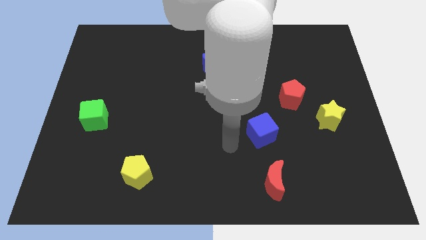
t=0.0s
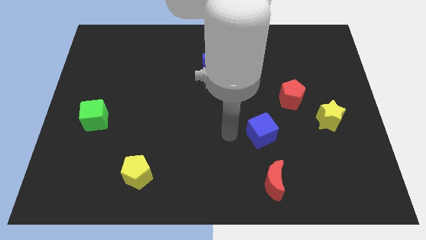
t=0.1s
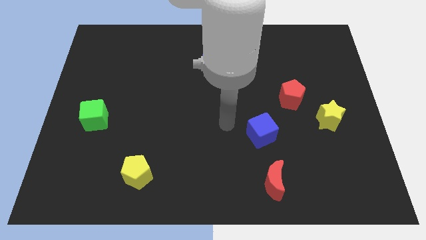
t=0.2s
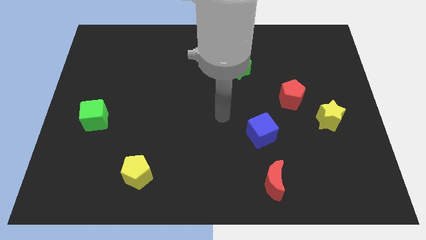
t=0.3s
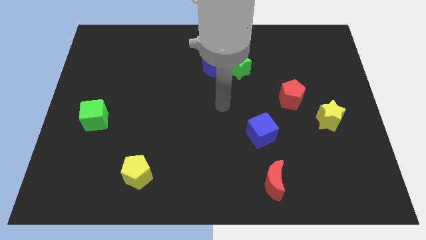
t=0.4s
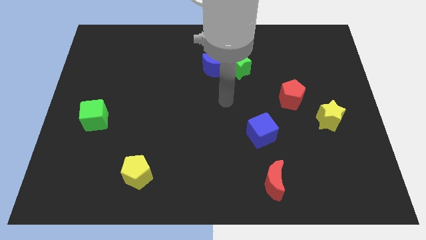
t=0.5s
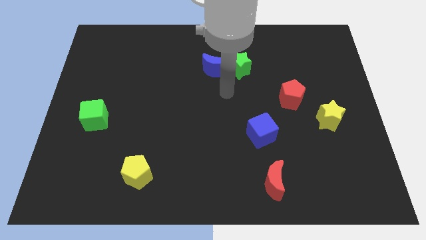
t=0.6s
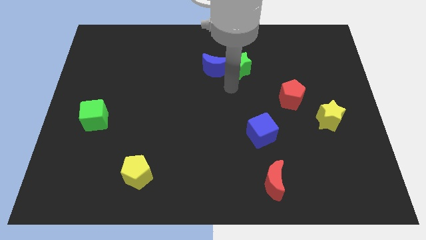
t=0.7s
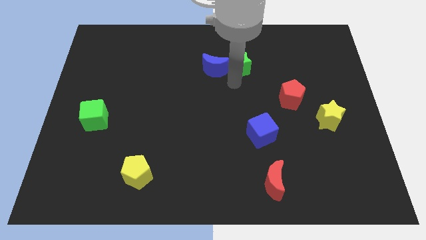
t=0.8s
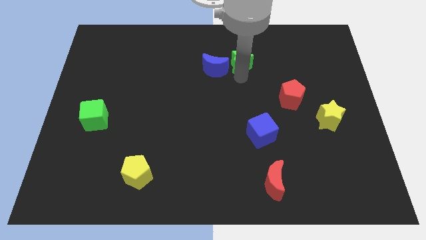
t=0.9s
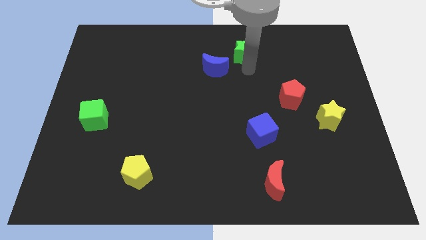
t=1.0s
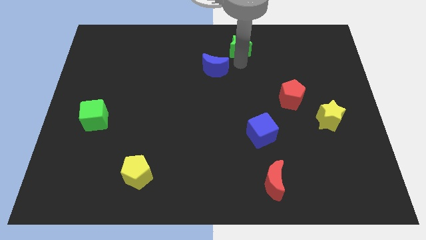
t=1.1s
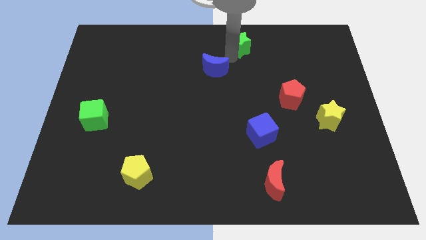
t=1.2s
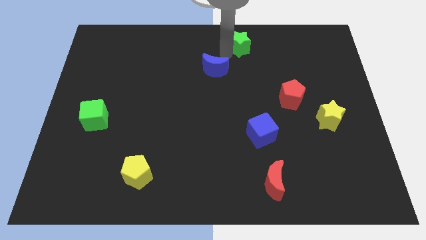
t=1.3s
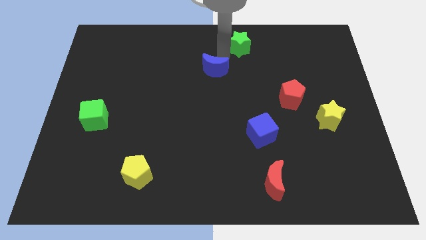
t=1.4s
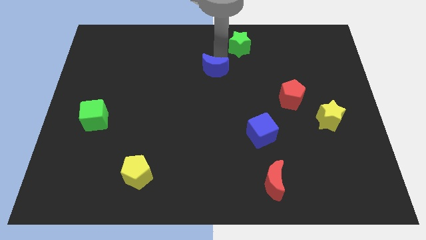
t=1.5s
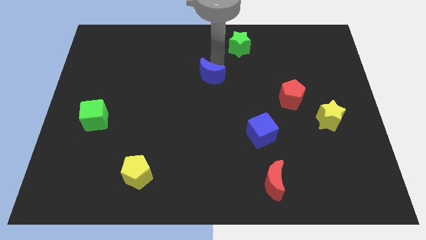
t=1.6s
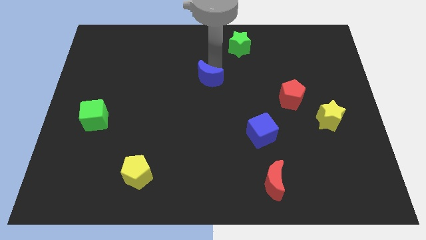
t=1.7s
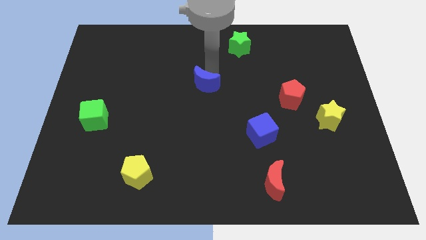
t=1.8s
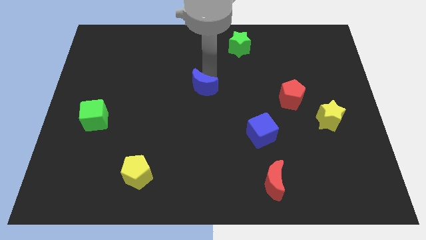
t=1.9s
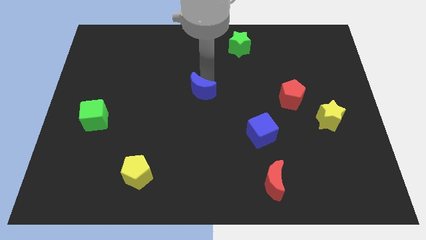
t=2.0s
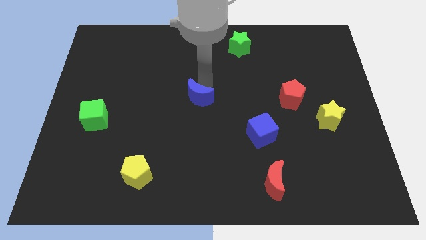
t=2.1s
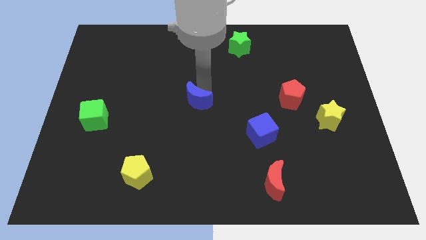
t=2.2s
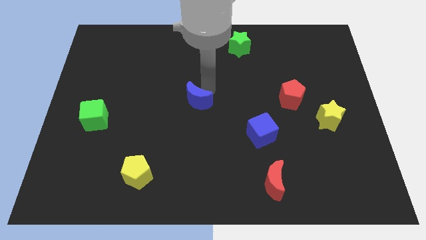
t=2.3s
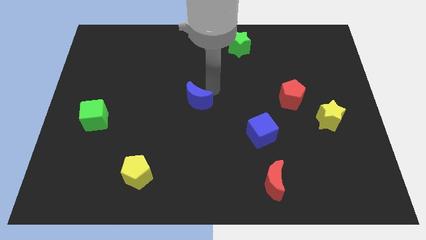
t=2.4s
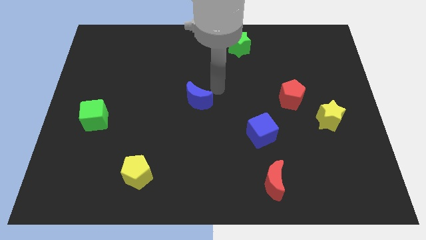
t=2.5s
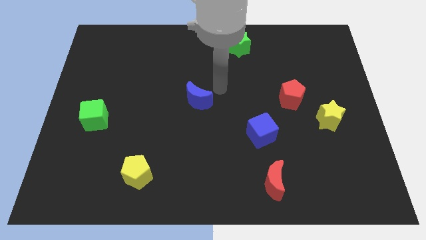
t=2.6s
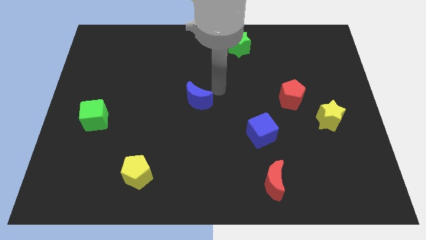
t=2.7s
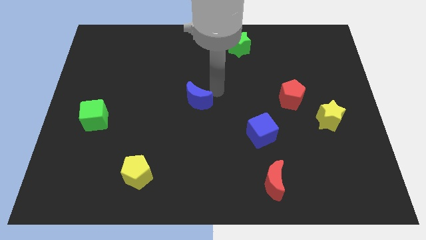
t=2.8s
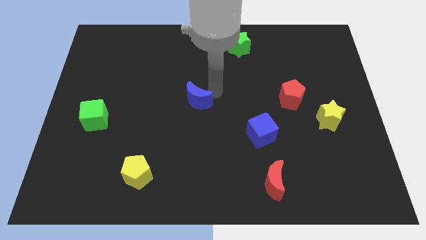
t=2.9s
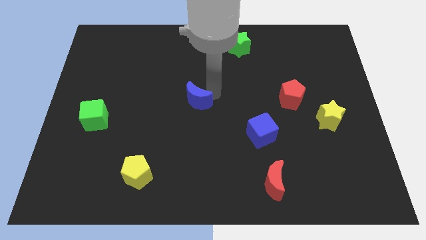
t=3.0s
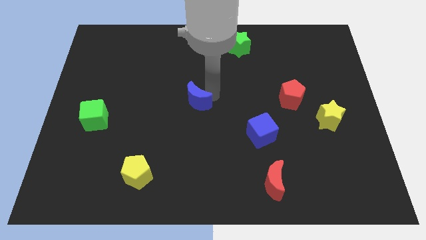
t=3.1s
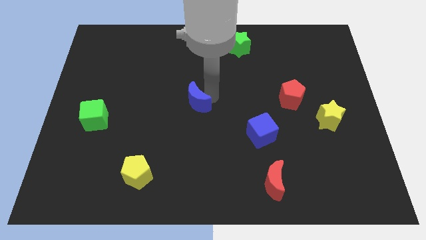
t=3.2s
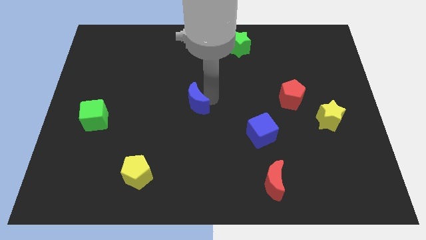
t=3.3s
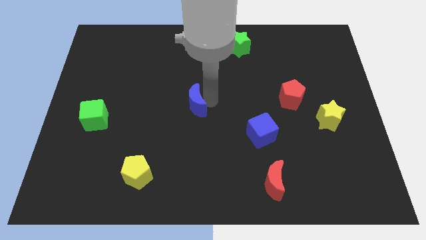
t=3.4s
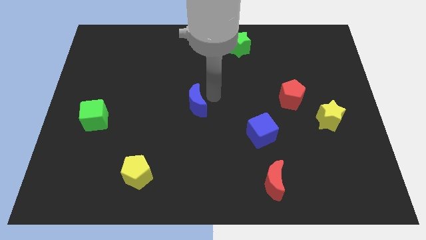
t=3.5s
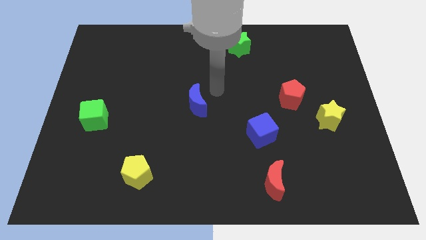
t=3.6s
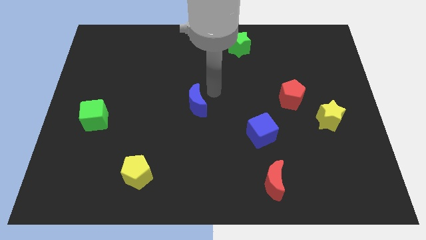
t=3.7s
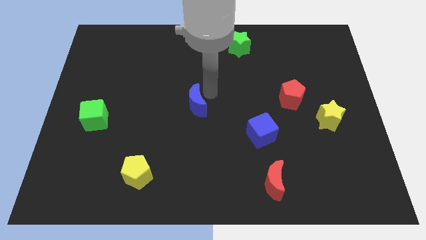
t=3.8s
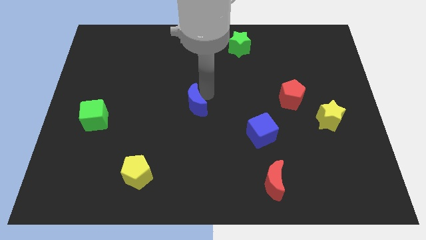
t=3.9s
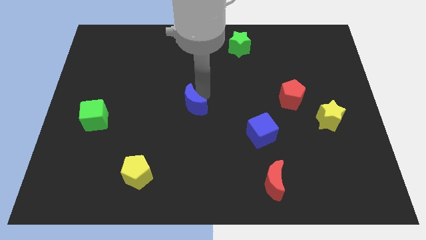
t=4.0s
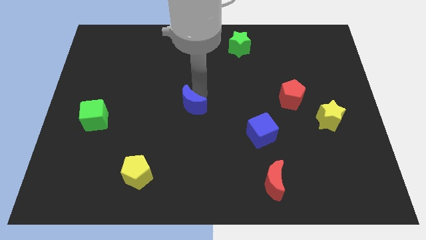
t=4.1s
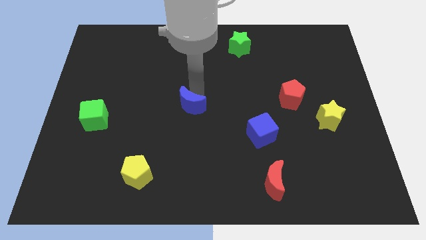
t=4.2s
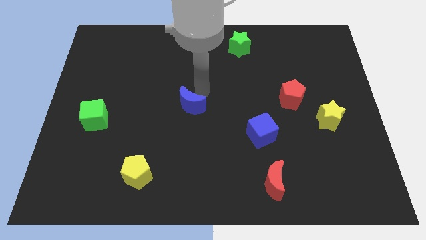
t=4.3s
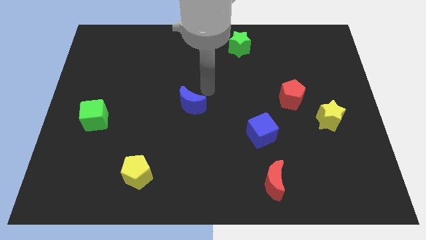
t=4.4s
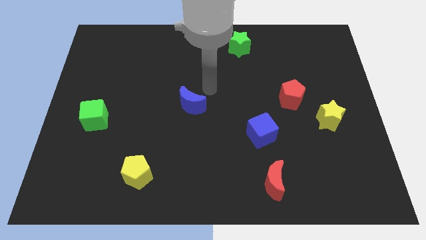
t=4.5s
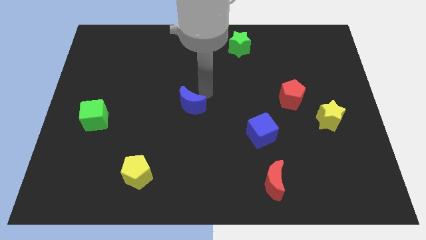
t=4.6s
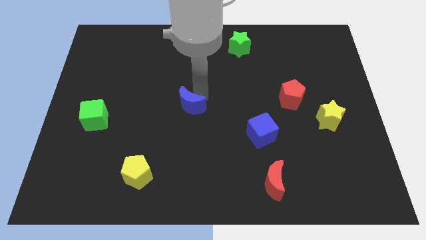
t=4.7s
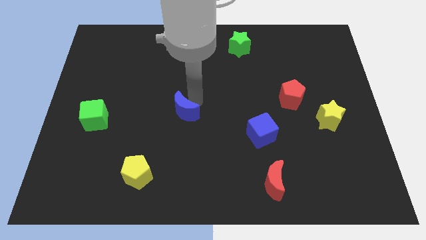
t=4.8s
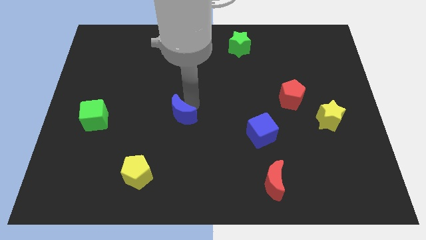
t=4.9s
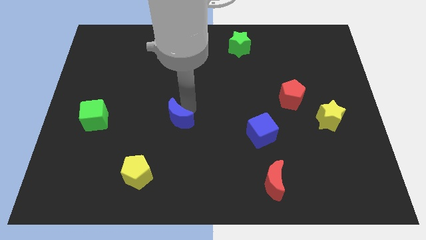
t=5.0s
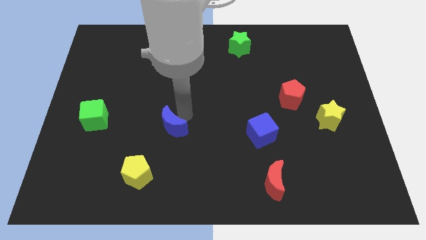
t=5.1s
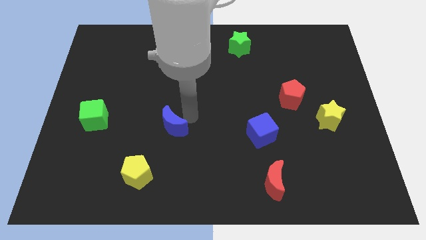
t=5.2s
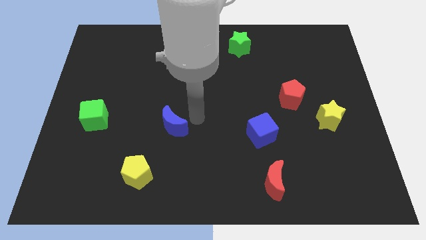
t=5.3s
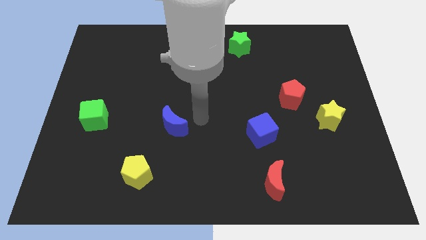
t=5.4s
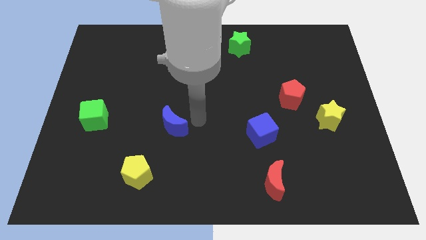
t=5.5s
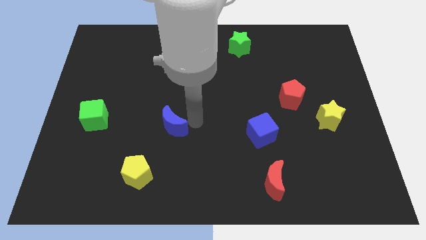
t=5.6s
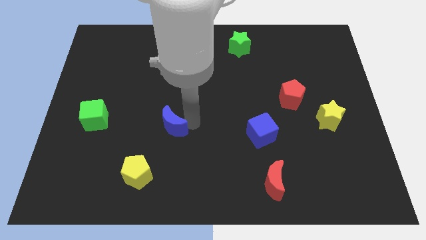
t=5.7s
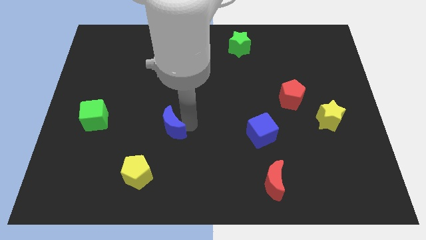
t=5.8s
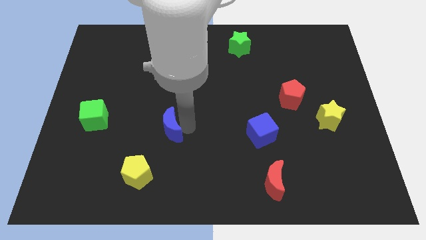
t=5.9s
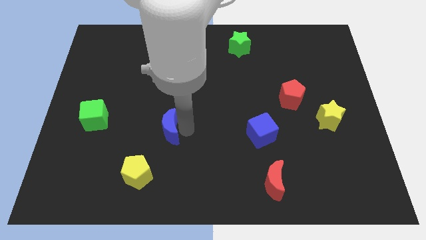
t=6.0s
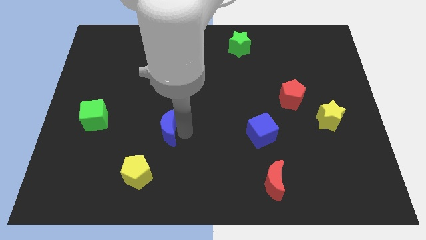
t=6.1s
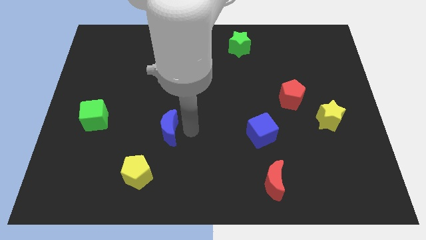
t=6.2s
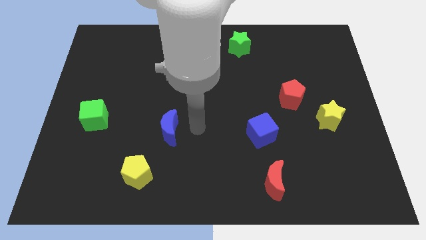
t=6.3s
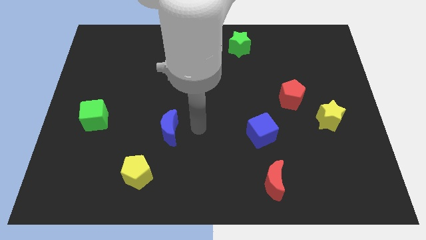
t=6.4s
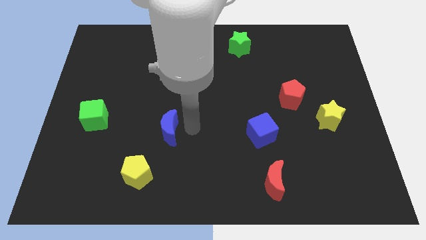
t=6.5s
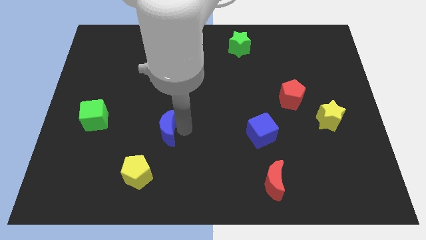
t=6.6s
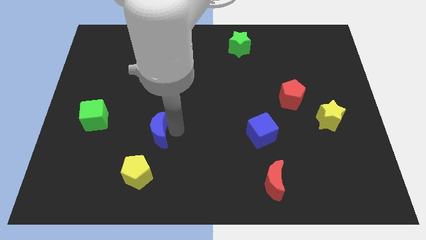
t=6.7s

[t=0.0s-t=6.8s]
push the blue moon above the yellow pentagon
